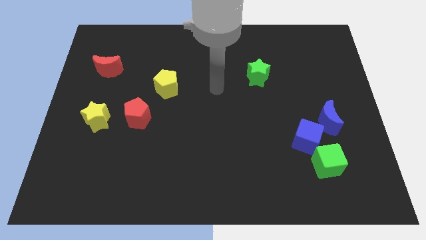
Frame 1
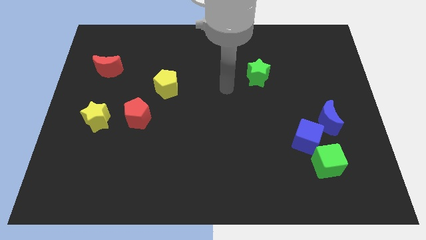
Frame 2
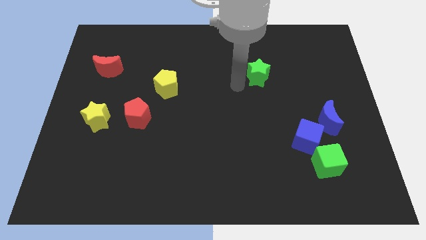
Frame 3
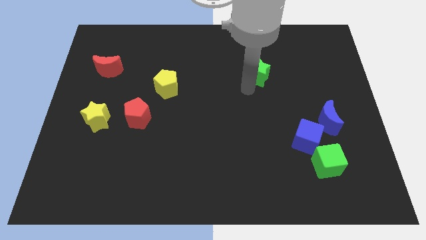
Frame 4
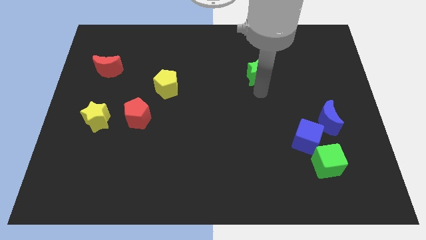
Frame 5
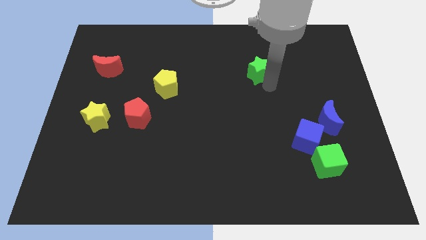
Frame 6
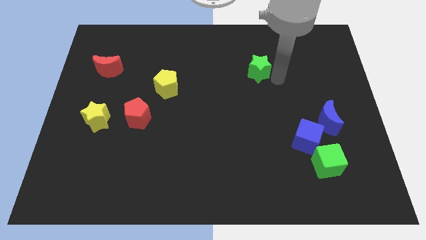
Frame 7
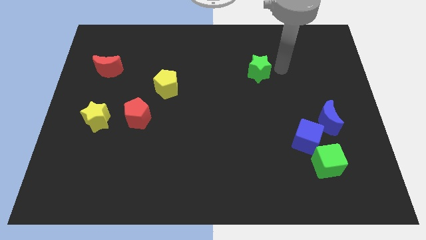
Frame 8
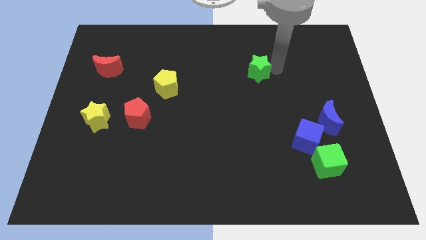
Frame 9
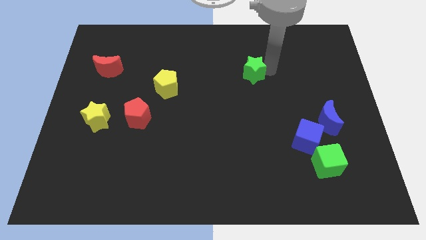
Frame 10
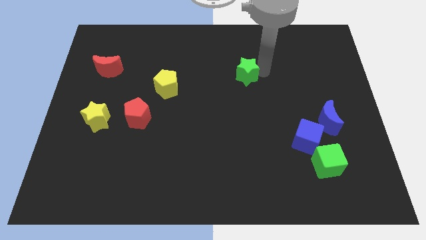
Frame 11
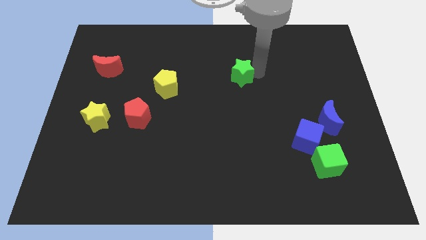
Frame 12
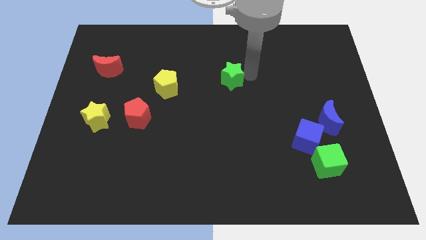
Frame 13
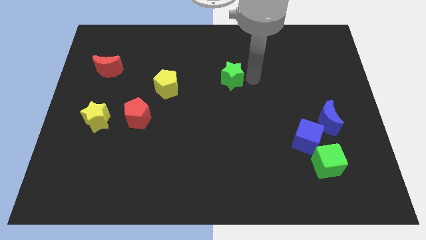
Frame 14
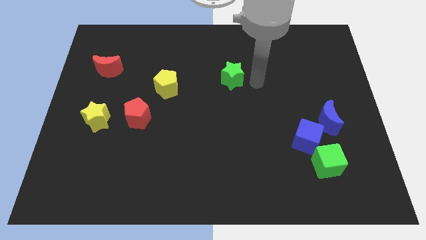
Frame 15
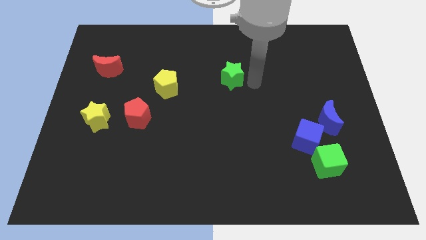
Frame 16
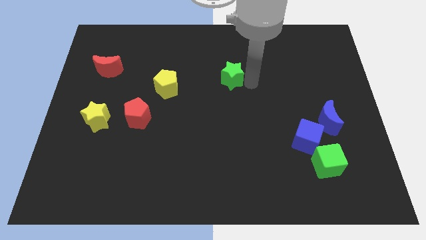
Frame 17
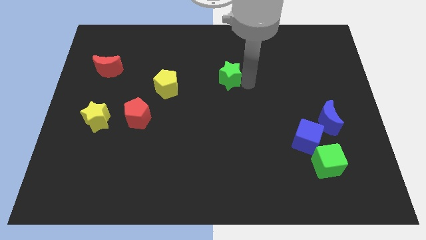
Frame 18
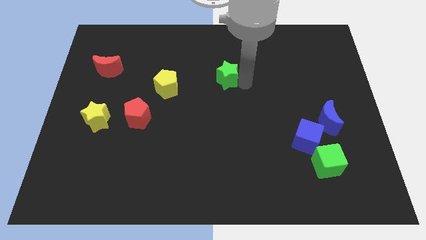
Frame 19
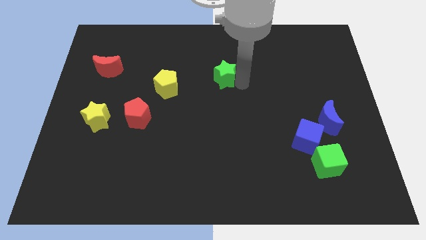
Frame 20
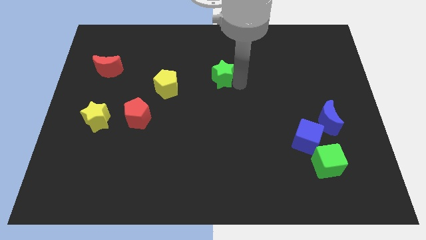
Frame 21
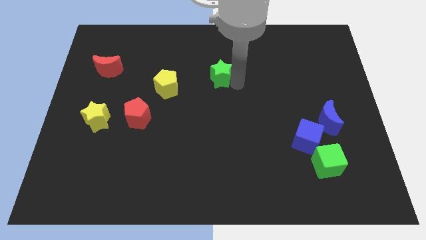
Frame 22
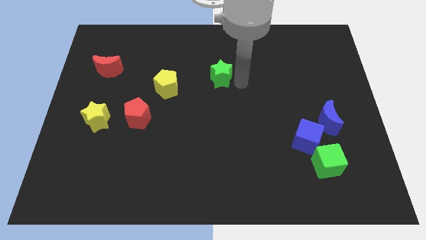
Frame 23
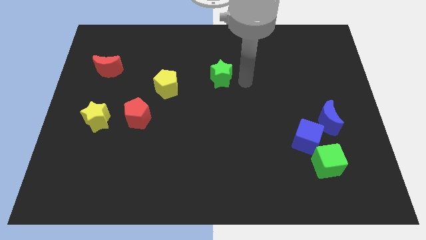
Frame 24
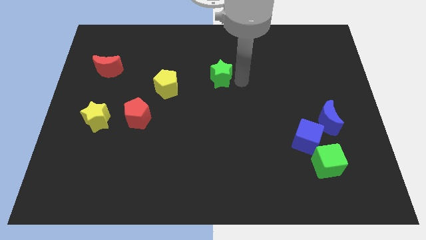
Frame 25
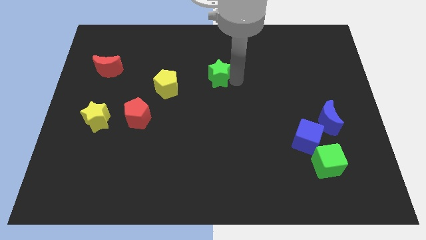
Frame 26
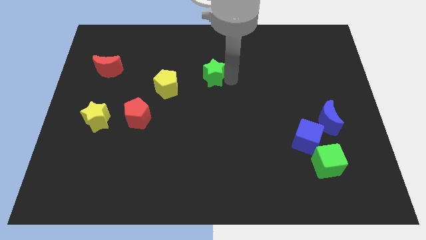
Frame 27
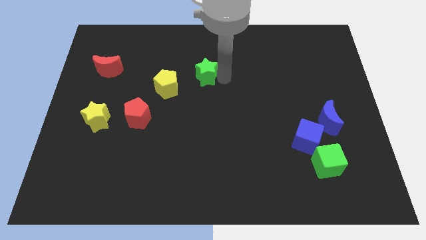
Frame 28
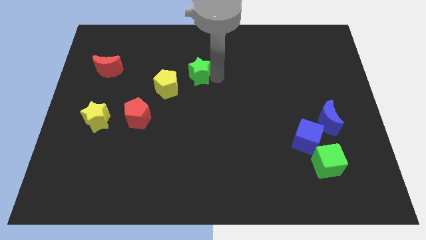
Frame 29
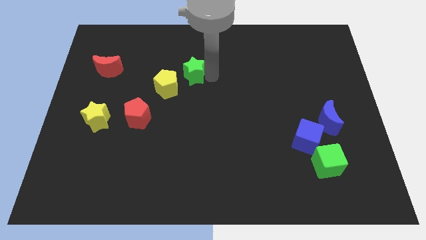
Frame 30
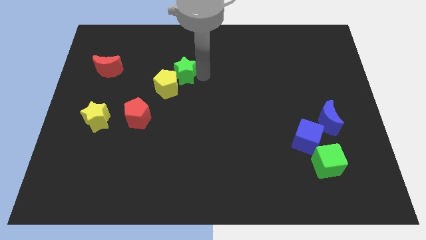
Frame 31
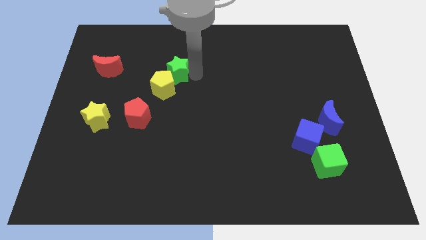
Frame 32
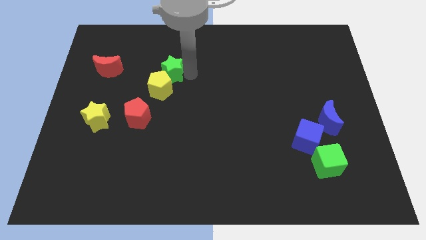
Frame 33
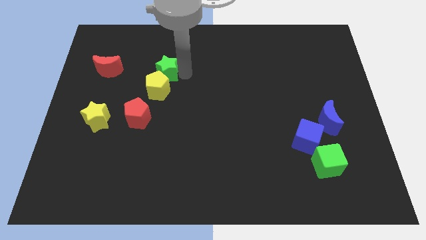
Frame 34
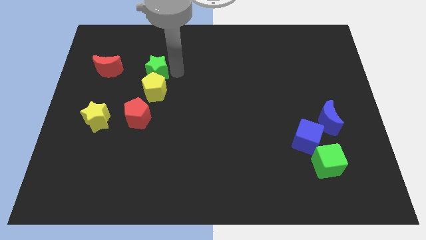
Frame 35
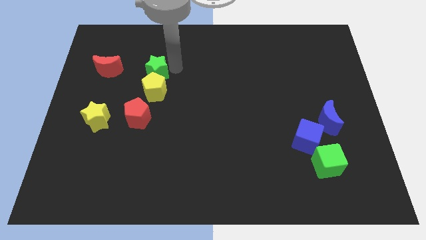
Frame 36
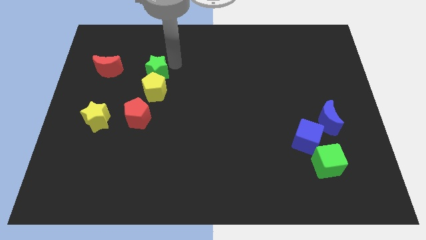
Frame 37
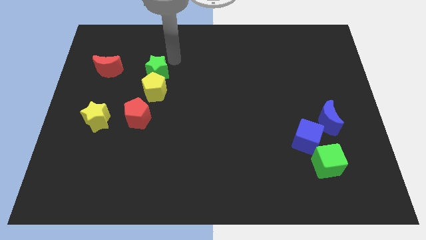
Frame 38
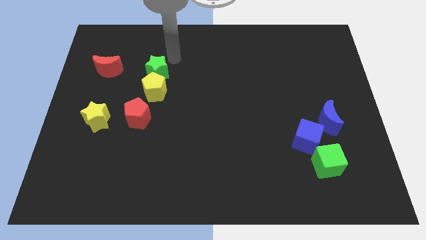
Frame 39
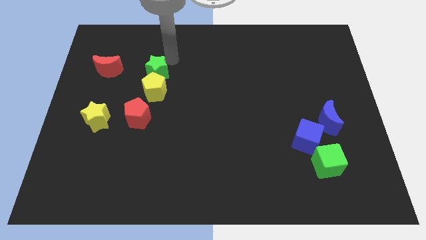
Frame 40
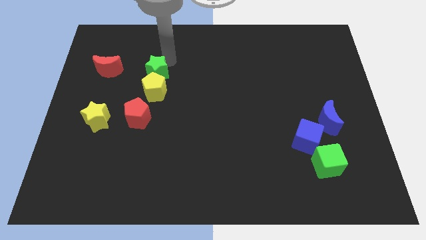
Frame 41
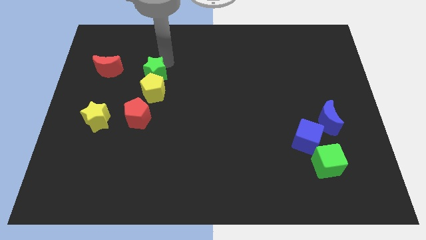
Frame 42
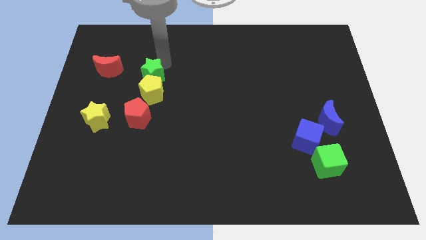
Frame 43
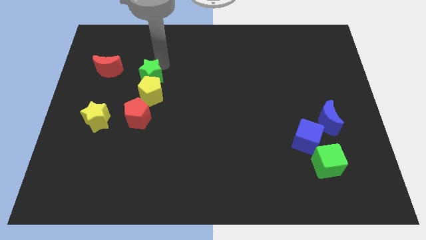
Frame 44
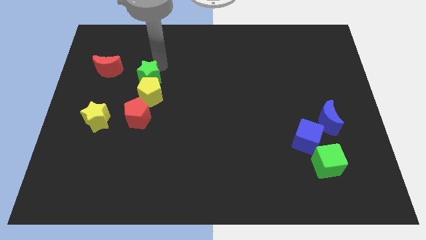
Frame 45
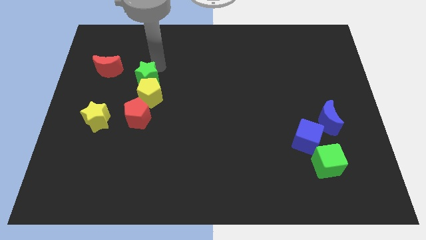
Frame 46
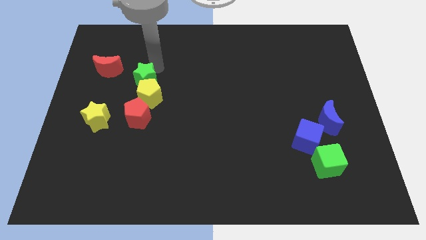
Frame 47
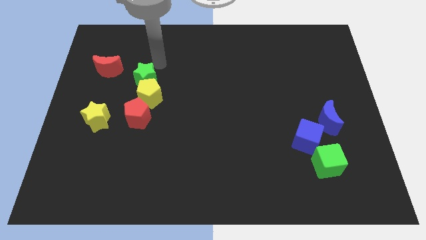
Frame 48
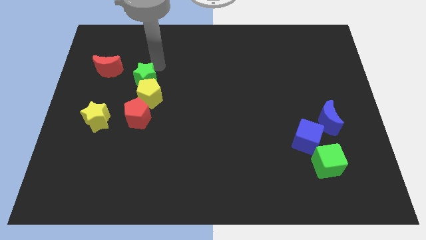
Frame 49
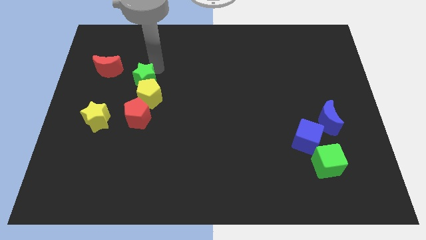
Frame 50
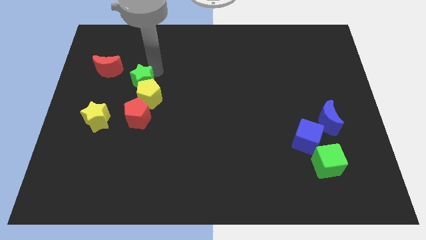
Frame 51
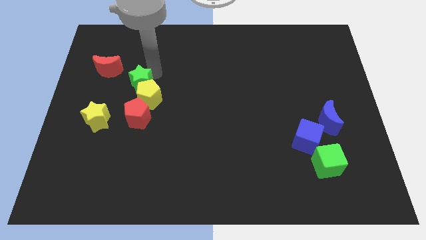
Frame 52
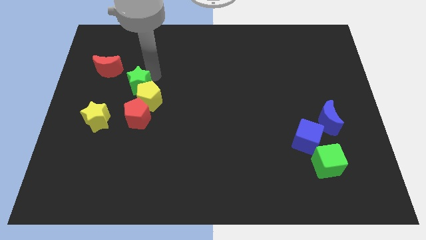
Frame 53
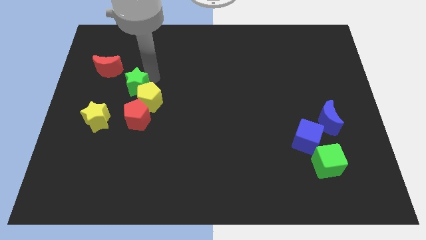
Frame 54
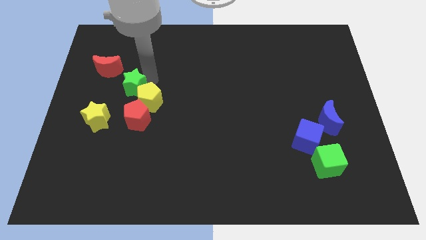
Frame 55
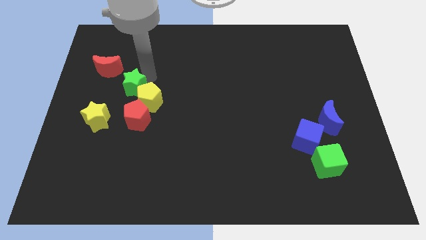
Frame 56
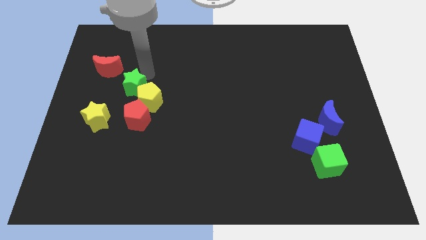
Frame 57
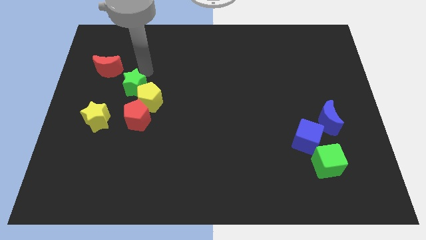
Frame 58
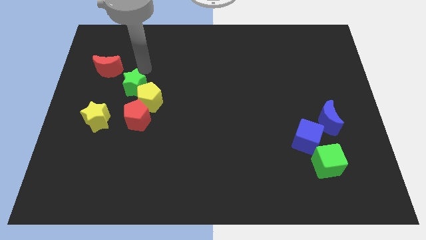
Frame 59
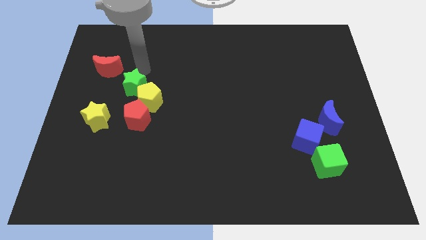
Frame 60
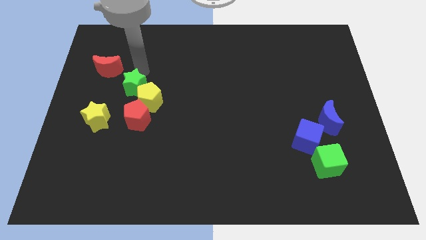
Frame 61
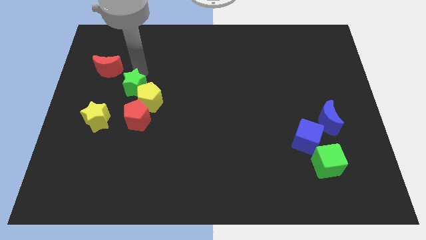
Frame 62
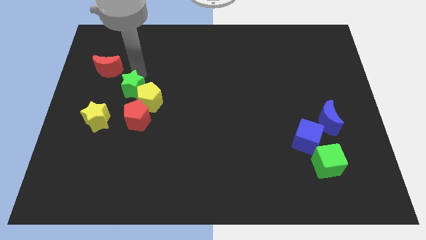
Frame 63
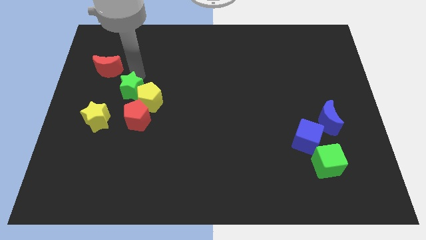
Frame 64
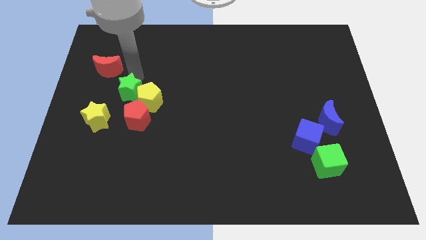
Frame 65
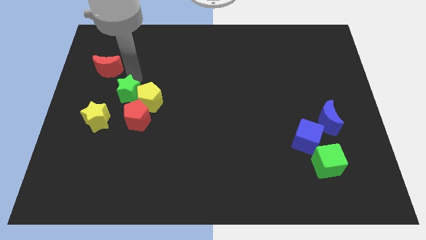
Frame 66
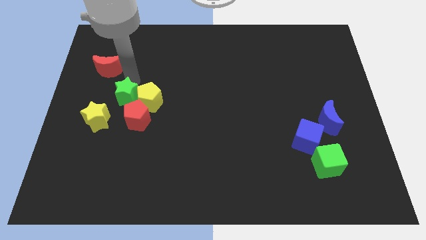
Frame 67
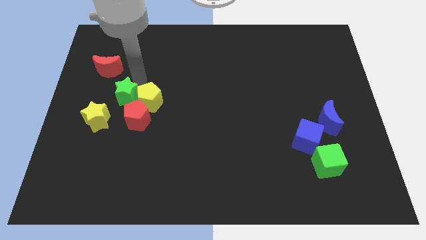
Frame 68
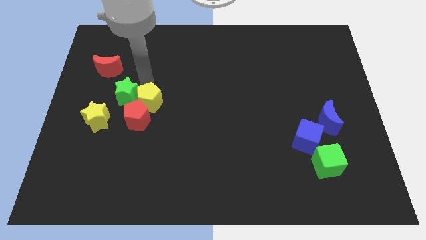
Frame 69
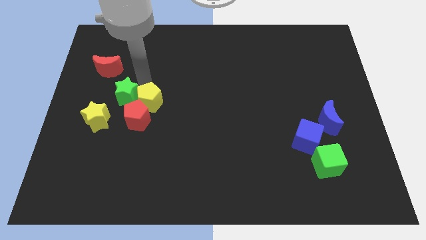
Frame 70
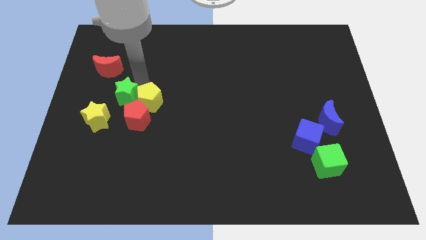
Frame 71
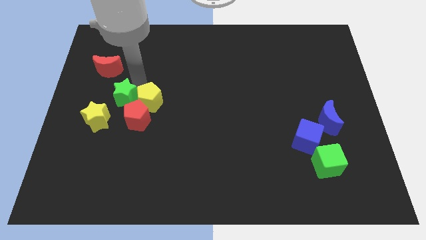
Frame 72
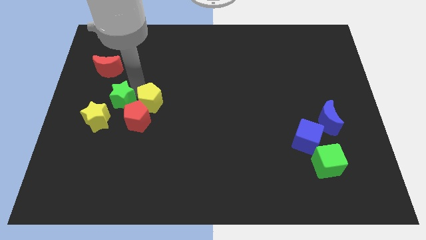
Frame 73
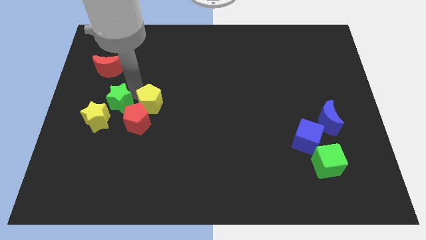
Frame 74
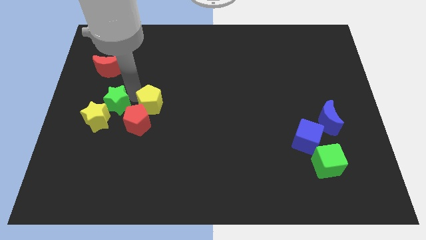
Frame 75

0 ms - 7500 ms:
push the green star to the yellow star
